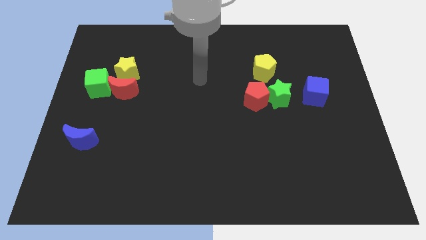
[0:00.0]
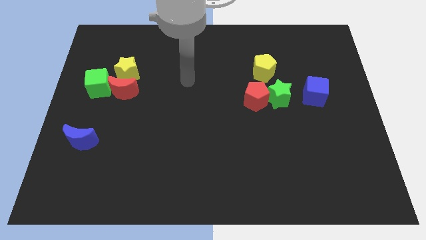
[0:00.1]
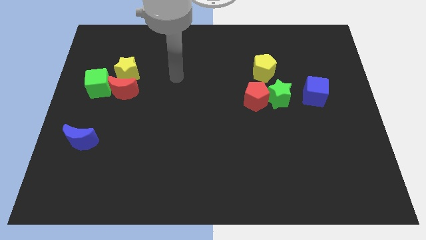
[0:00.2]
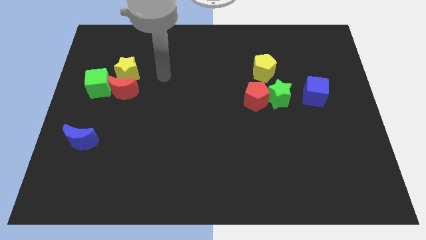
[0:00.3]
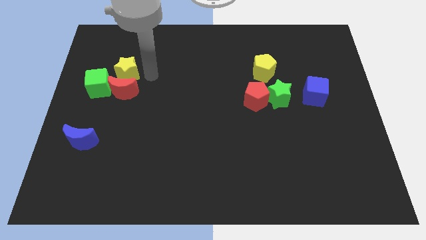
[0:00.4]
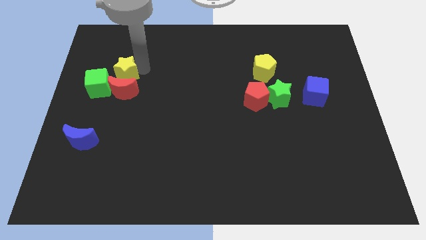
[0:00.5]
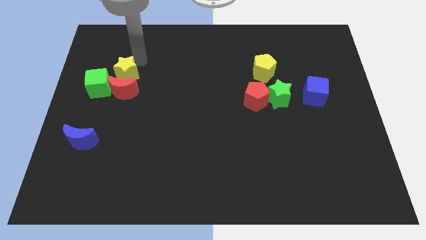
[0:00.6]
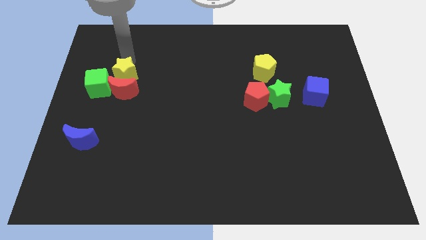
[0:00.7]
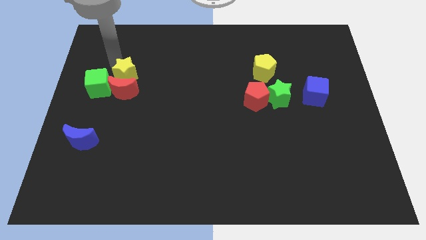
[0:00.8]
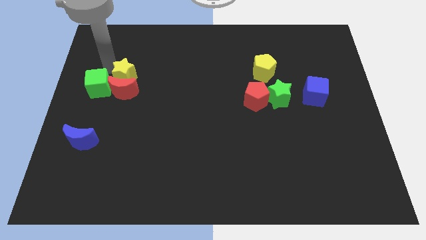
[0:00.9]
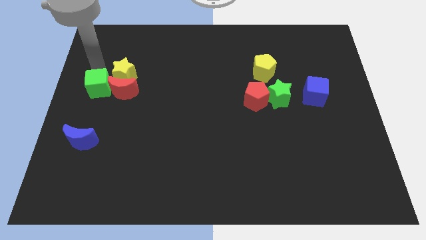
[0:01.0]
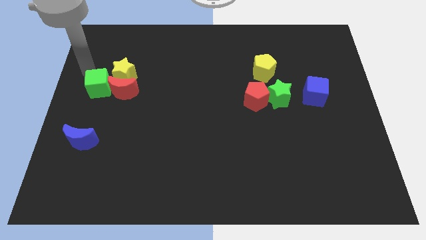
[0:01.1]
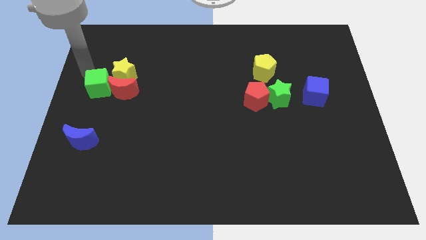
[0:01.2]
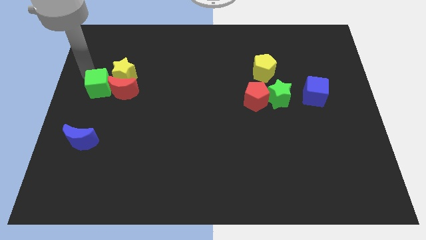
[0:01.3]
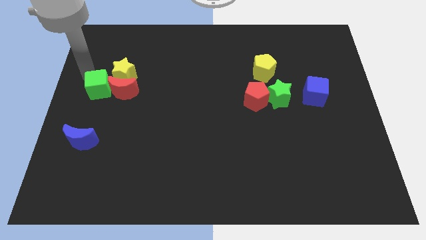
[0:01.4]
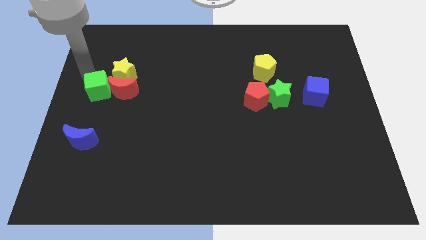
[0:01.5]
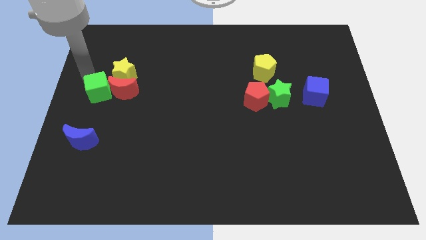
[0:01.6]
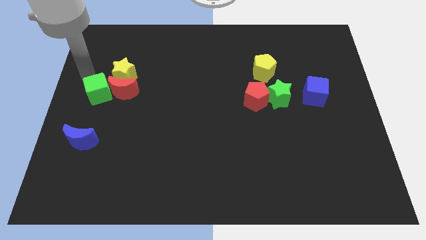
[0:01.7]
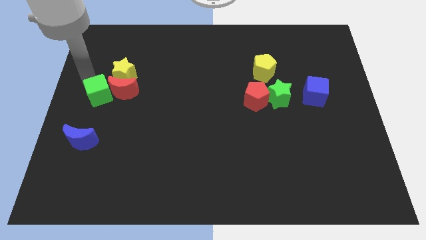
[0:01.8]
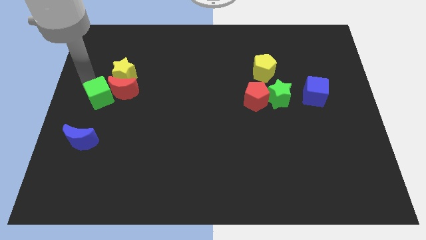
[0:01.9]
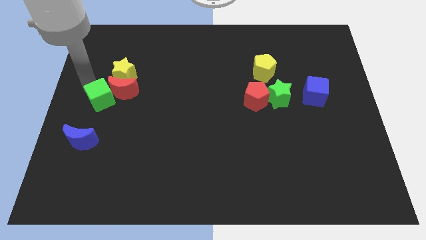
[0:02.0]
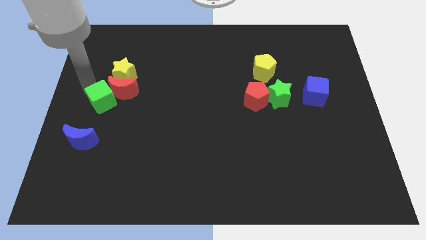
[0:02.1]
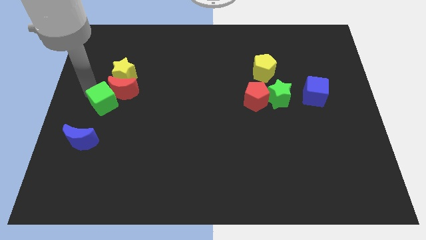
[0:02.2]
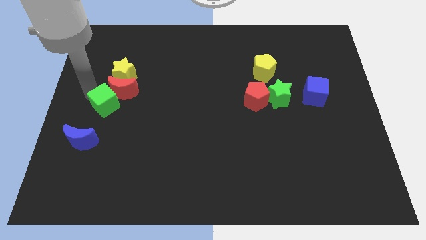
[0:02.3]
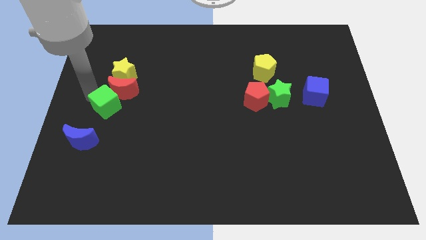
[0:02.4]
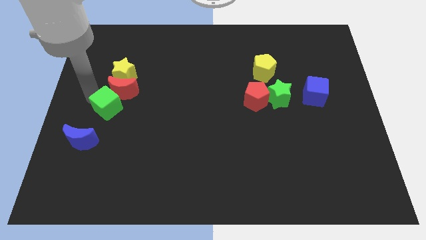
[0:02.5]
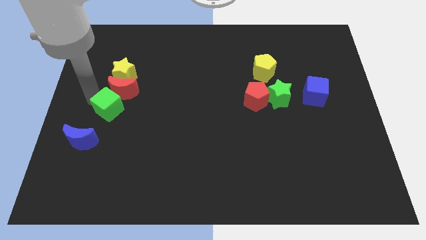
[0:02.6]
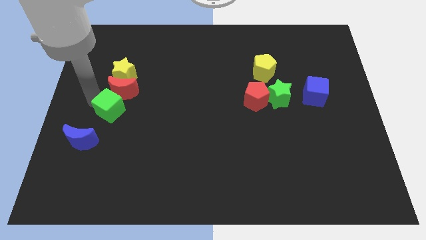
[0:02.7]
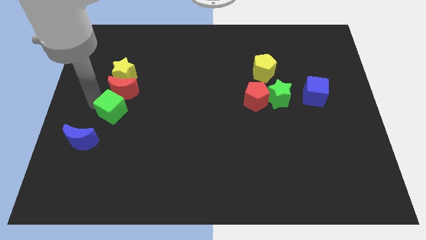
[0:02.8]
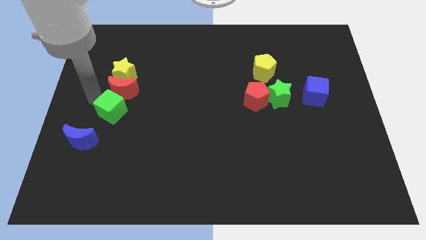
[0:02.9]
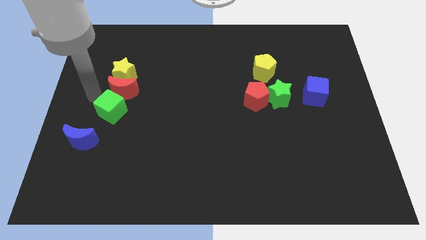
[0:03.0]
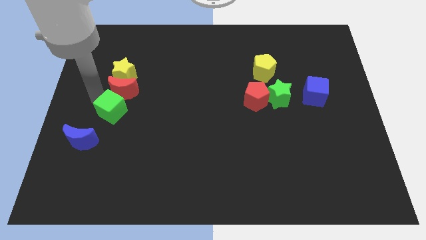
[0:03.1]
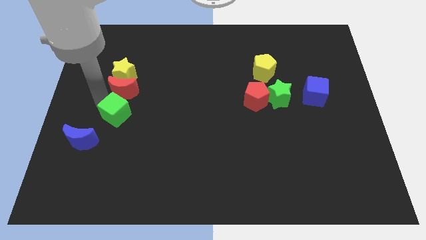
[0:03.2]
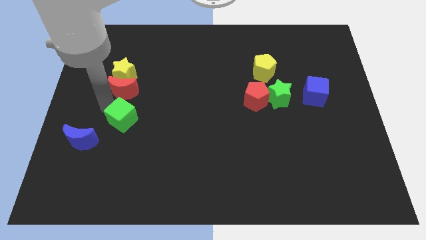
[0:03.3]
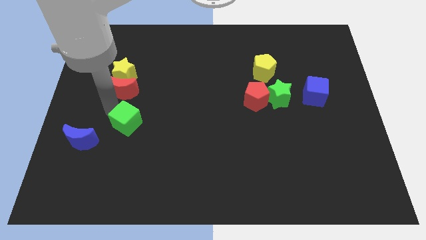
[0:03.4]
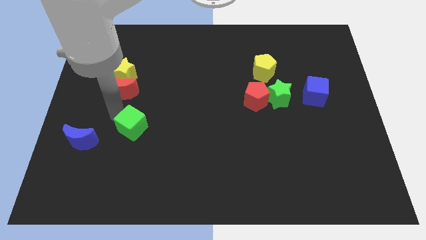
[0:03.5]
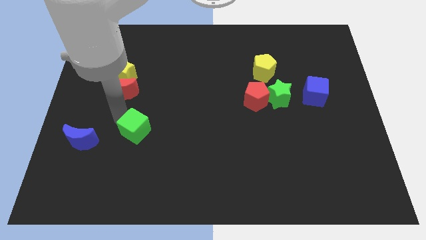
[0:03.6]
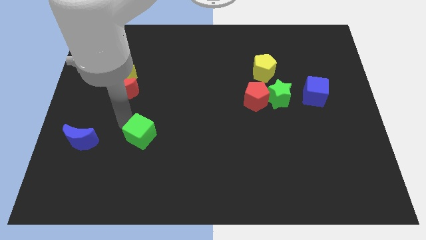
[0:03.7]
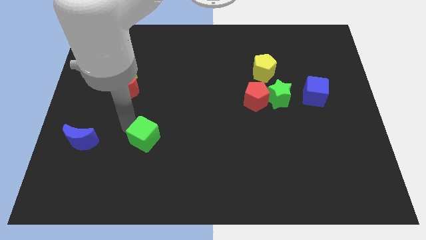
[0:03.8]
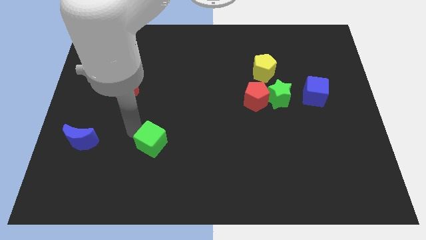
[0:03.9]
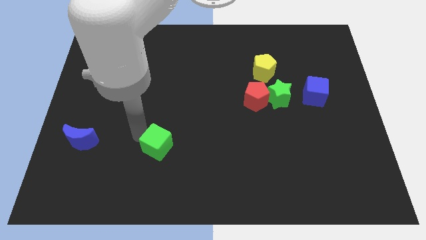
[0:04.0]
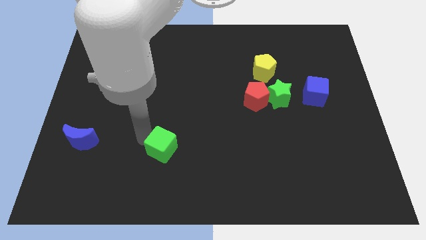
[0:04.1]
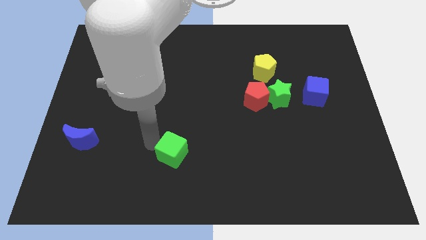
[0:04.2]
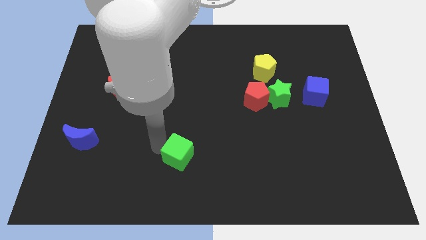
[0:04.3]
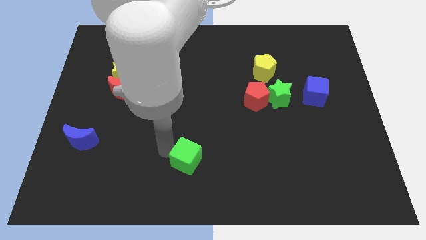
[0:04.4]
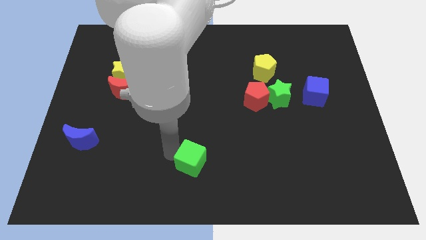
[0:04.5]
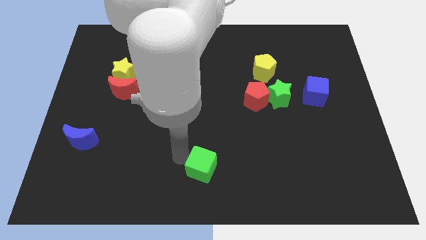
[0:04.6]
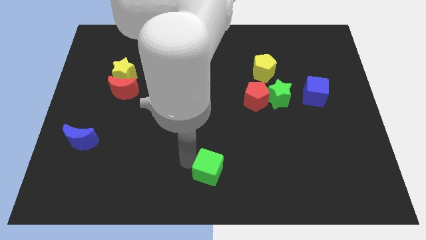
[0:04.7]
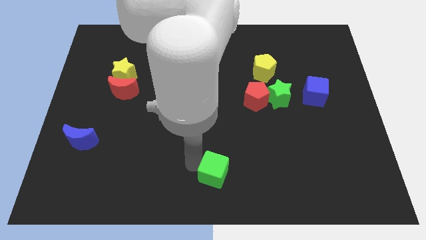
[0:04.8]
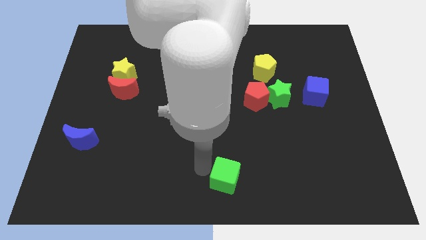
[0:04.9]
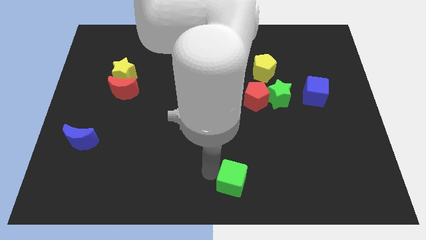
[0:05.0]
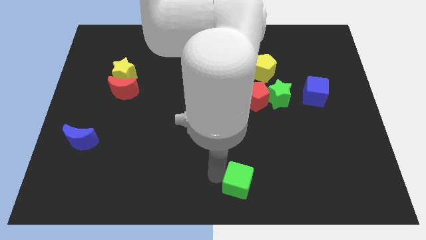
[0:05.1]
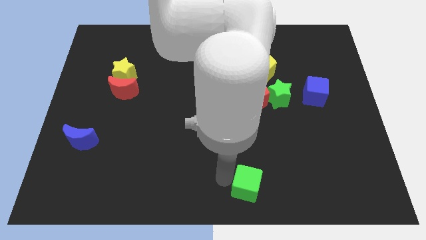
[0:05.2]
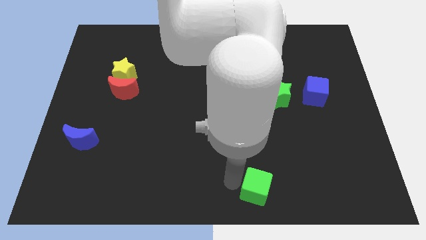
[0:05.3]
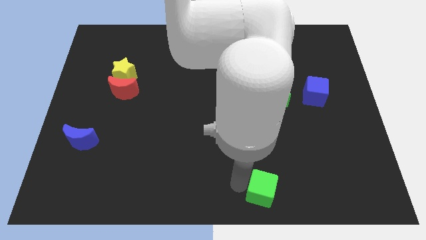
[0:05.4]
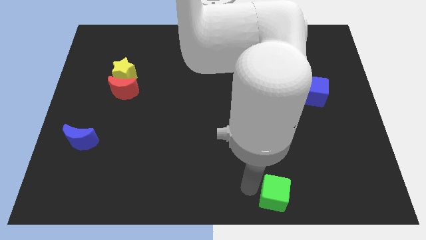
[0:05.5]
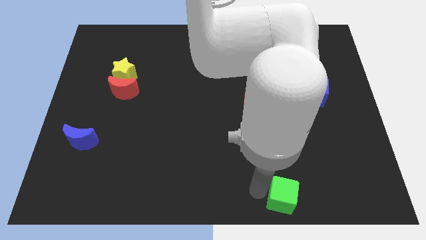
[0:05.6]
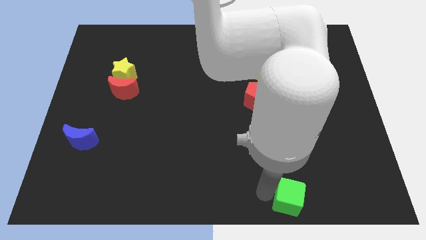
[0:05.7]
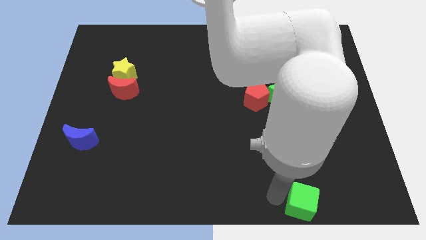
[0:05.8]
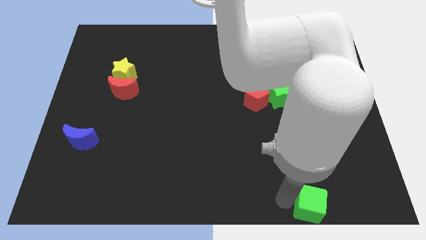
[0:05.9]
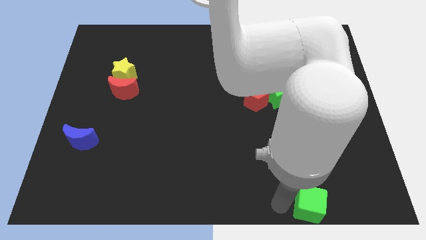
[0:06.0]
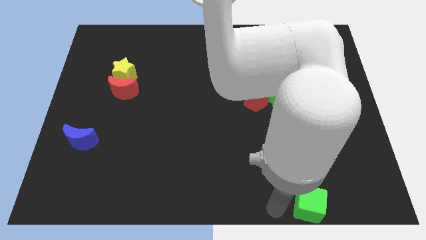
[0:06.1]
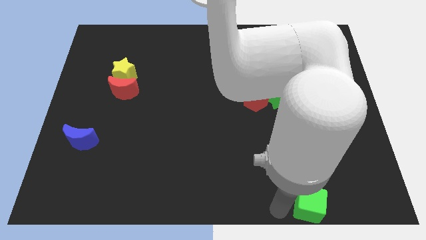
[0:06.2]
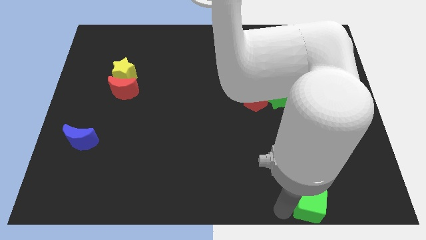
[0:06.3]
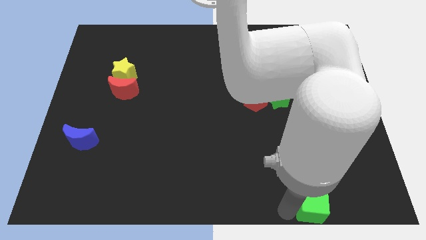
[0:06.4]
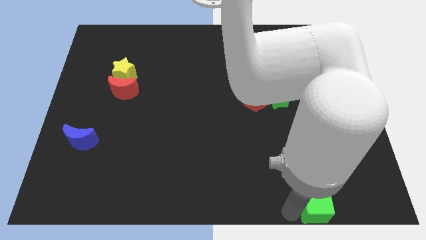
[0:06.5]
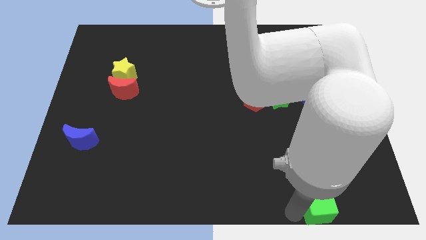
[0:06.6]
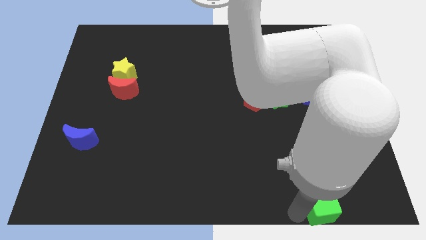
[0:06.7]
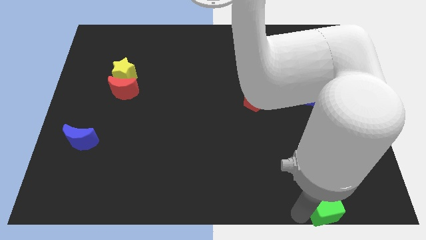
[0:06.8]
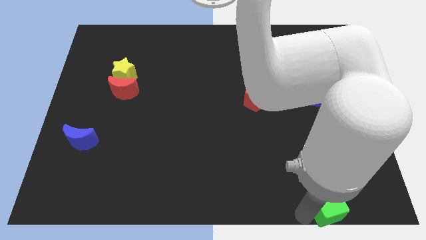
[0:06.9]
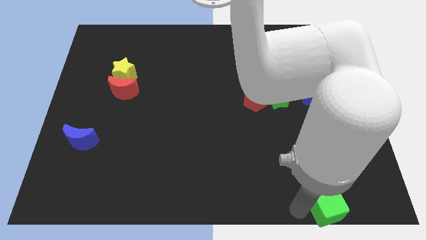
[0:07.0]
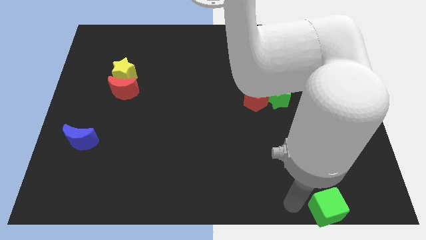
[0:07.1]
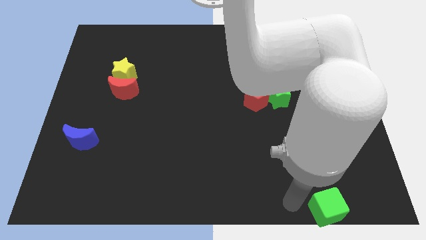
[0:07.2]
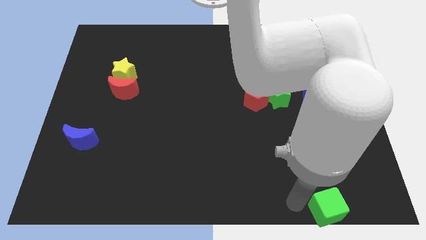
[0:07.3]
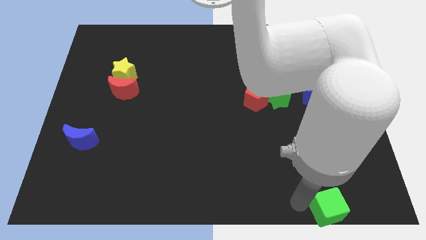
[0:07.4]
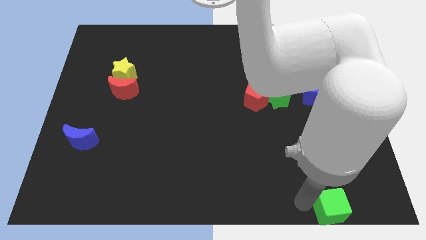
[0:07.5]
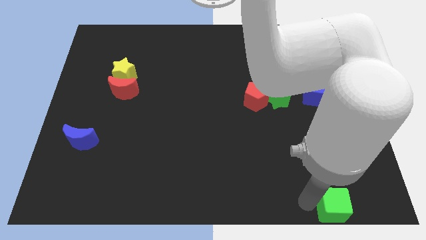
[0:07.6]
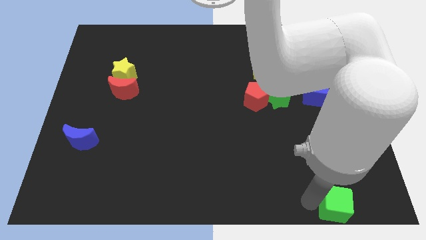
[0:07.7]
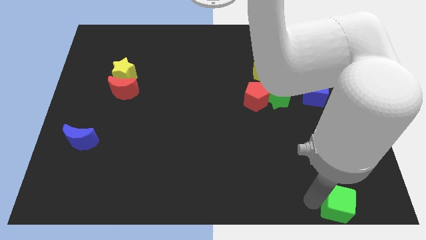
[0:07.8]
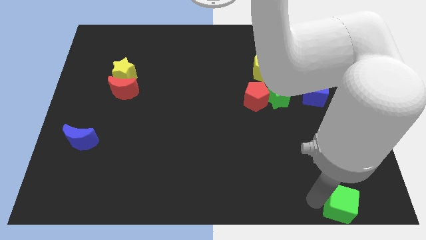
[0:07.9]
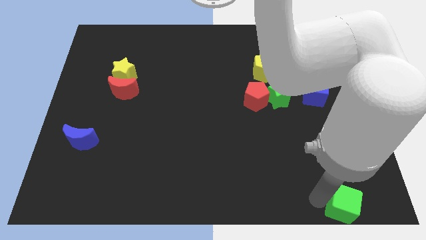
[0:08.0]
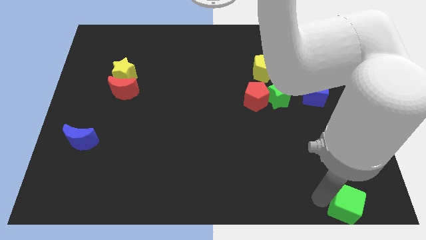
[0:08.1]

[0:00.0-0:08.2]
move the green cube to the bottom right corner
